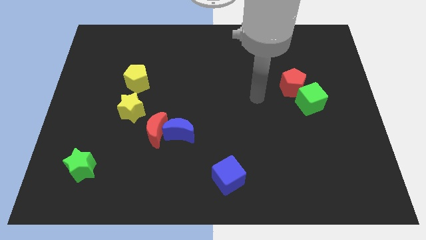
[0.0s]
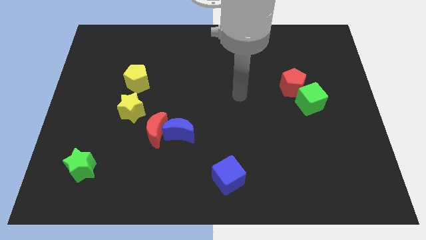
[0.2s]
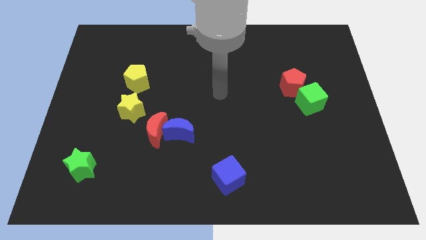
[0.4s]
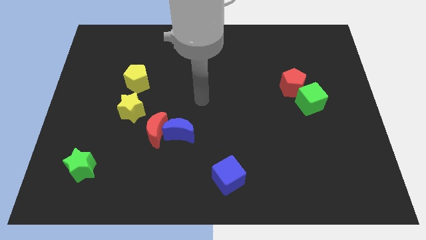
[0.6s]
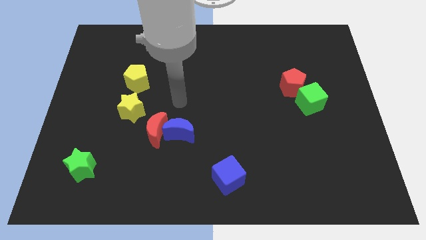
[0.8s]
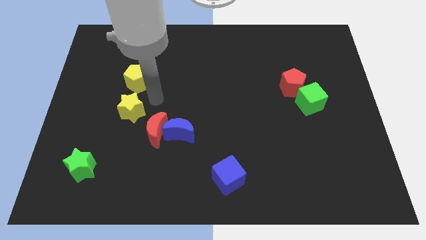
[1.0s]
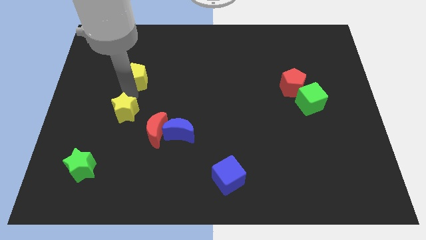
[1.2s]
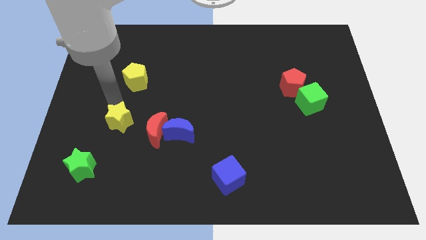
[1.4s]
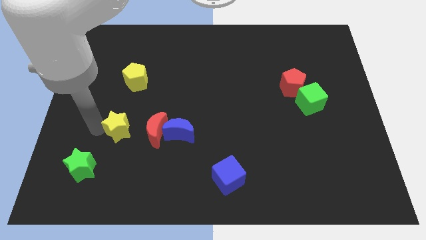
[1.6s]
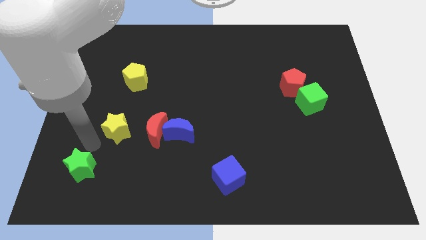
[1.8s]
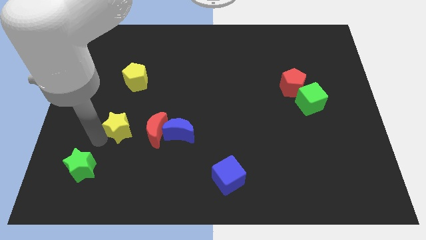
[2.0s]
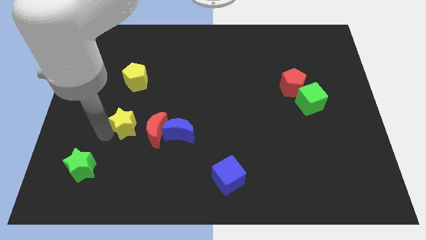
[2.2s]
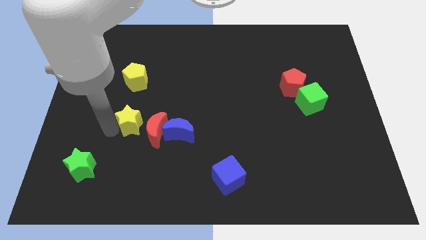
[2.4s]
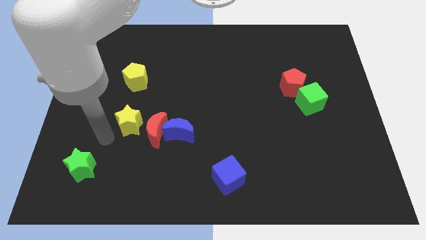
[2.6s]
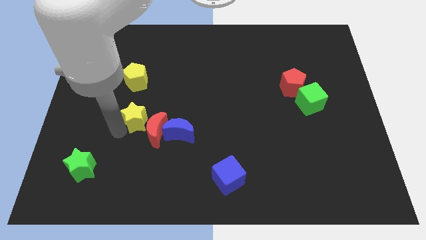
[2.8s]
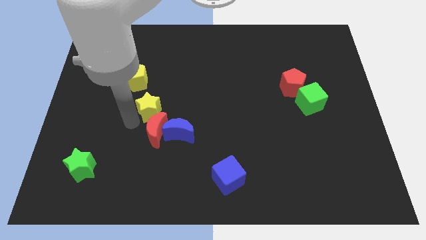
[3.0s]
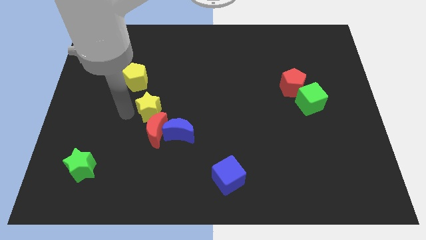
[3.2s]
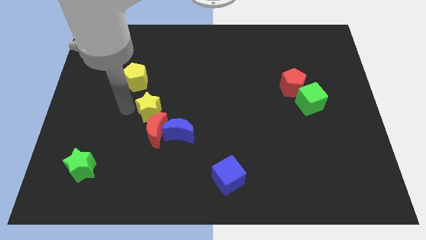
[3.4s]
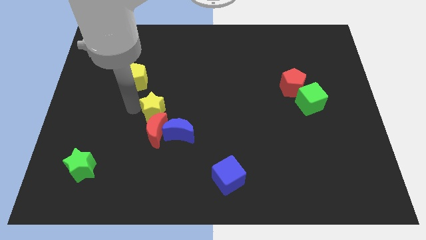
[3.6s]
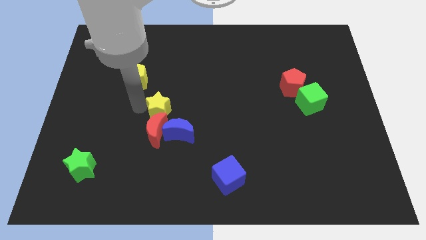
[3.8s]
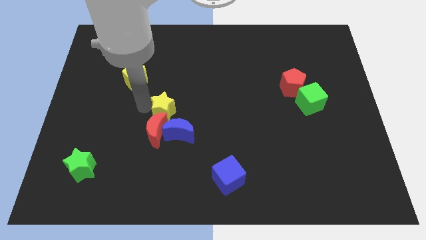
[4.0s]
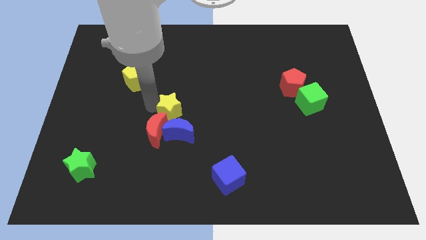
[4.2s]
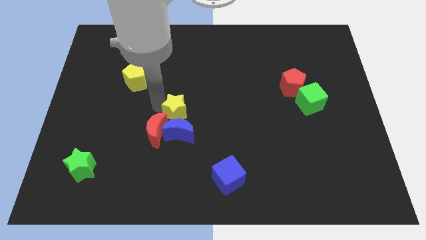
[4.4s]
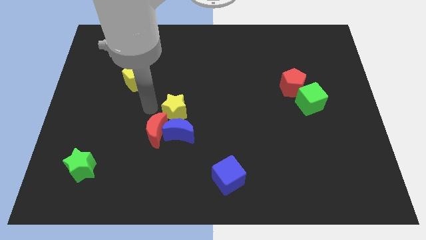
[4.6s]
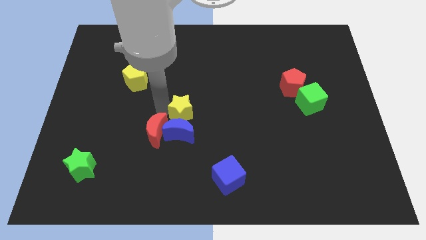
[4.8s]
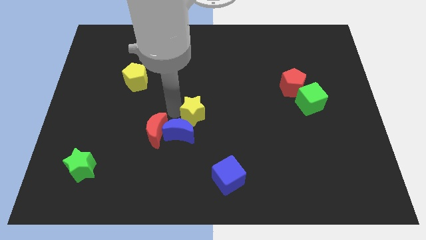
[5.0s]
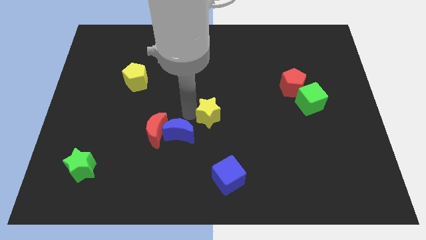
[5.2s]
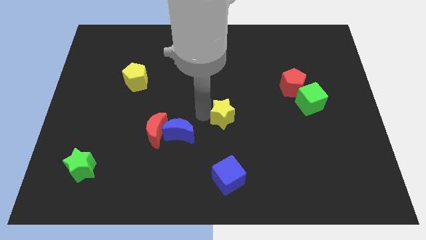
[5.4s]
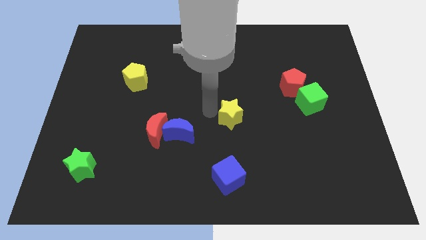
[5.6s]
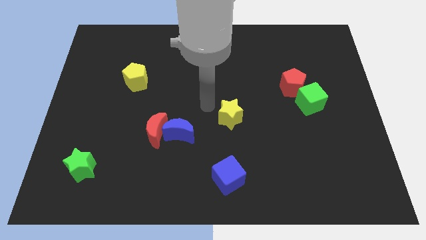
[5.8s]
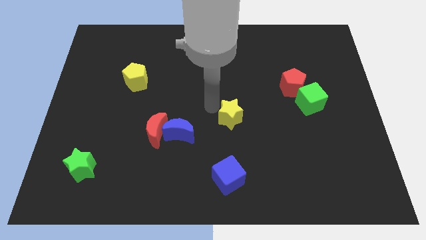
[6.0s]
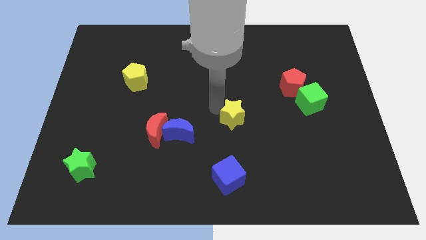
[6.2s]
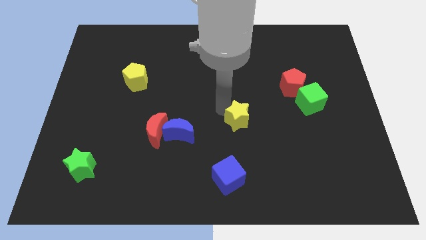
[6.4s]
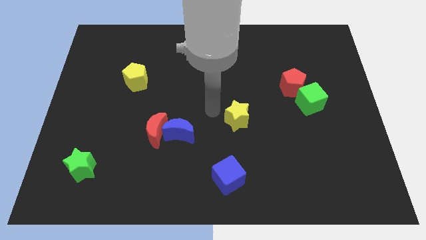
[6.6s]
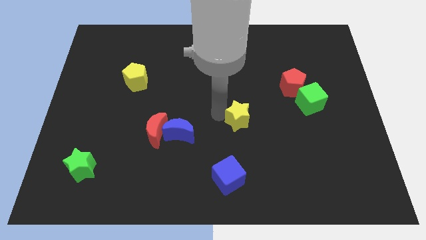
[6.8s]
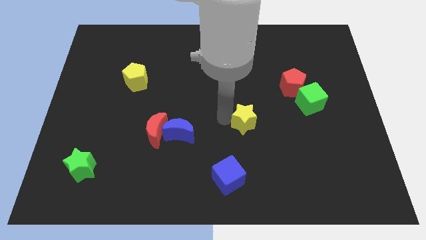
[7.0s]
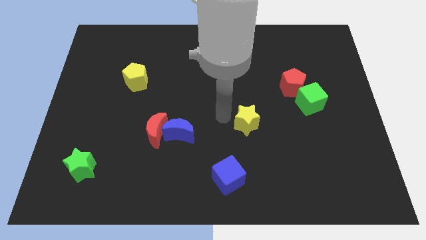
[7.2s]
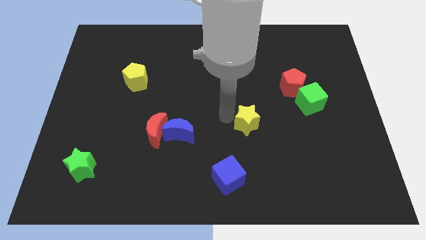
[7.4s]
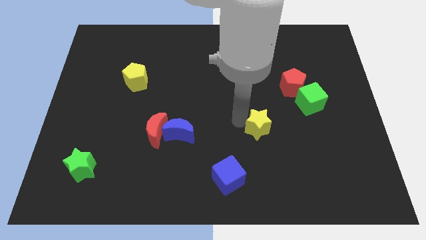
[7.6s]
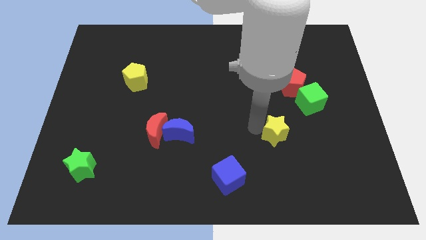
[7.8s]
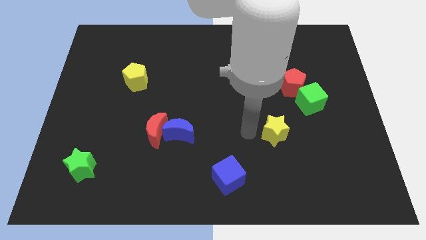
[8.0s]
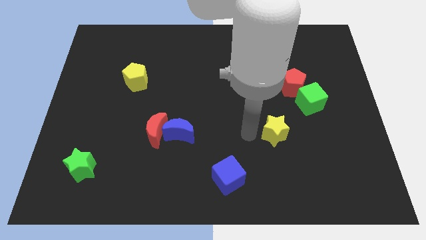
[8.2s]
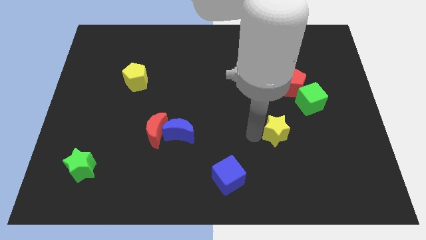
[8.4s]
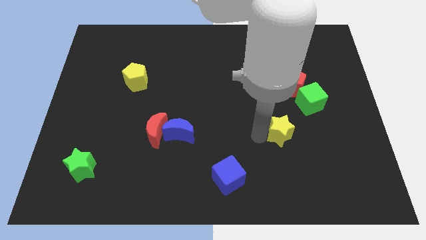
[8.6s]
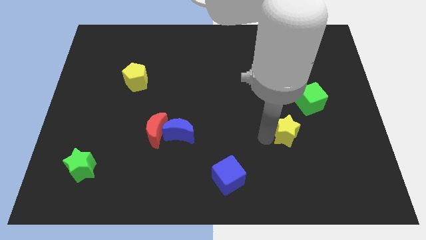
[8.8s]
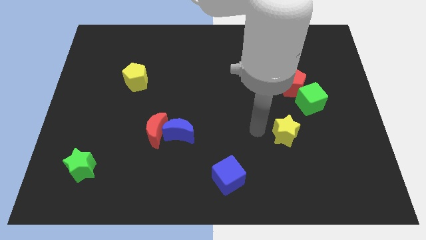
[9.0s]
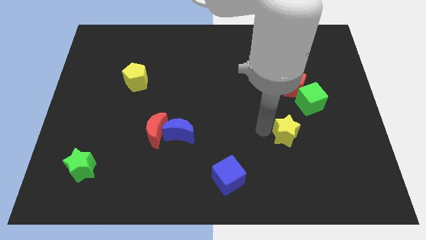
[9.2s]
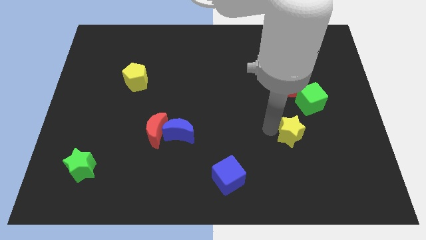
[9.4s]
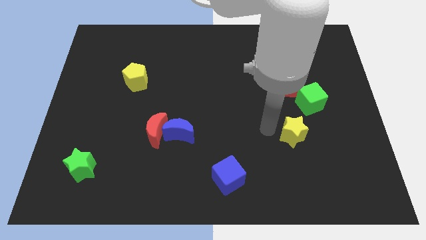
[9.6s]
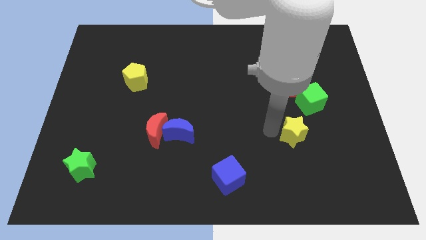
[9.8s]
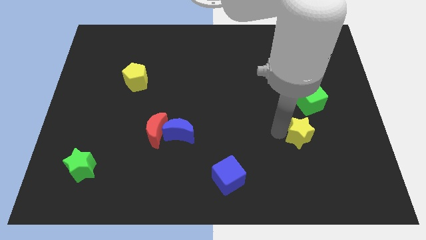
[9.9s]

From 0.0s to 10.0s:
push the yellow star to the bottom of the green cube

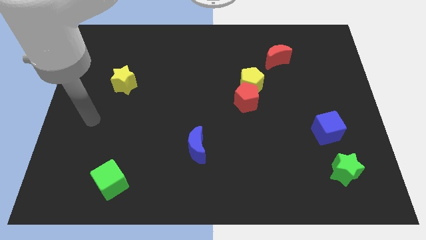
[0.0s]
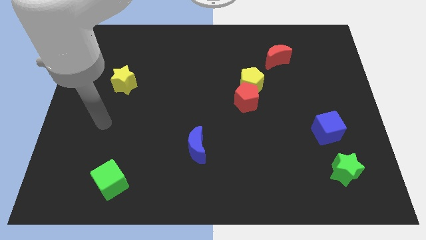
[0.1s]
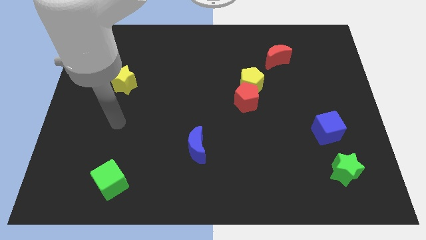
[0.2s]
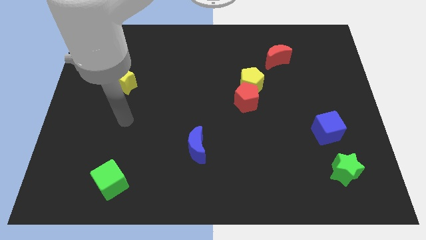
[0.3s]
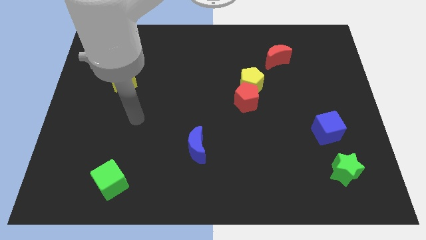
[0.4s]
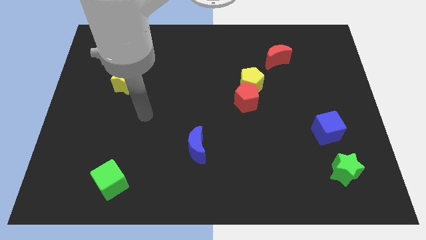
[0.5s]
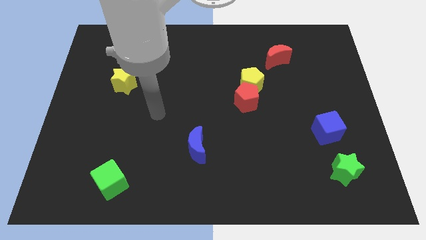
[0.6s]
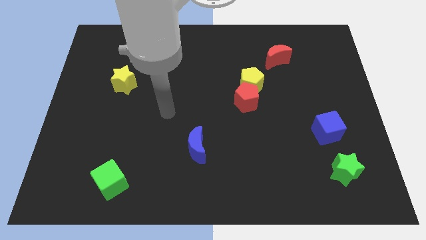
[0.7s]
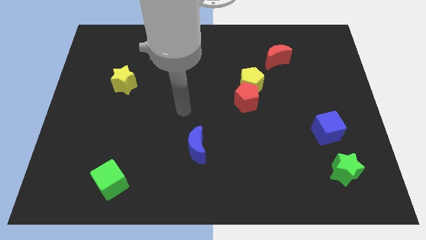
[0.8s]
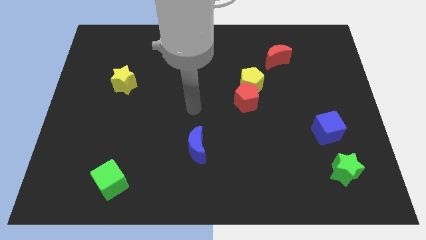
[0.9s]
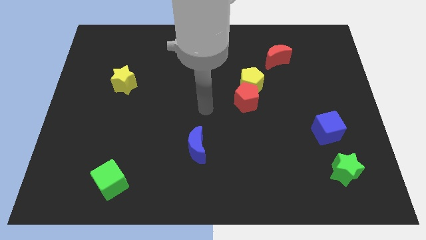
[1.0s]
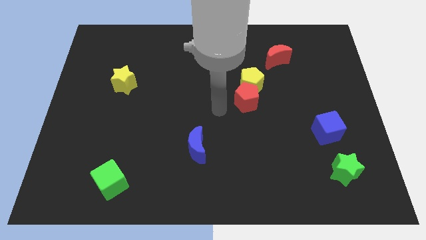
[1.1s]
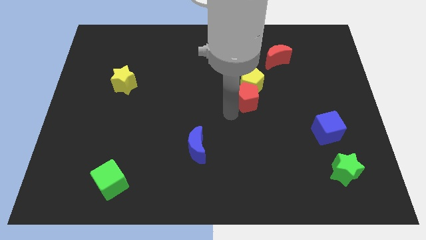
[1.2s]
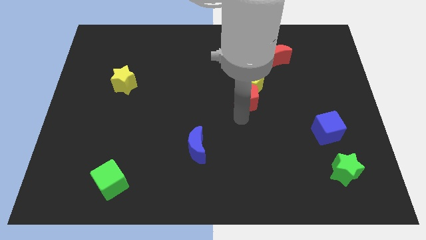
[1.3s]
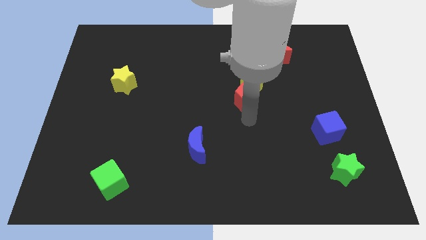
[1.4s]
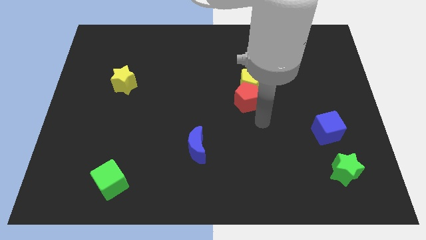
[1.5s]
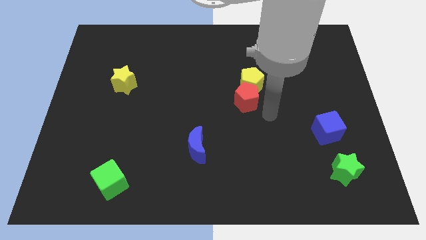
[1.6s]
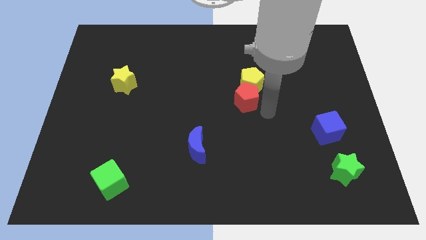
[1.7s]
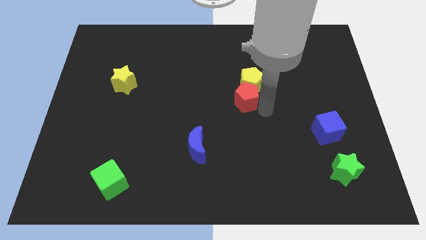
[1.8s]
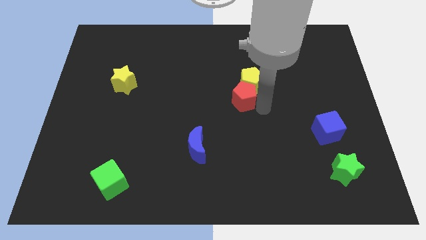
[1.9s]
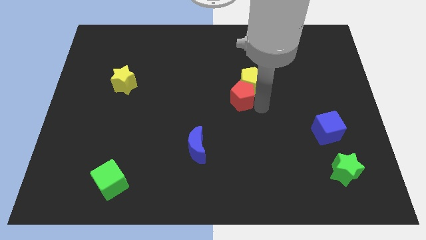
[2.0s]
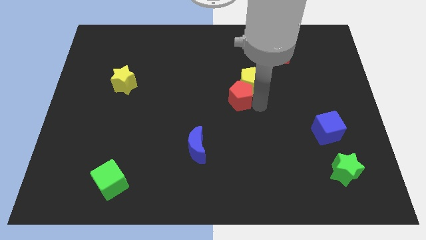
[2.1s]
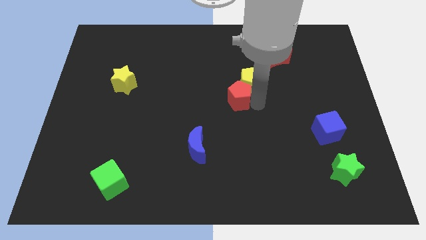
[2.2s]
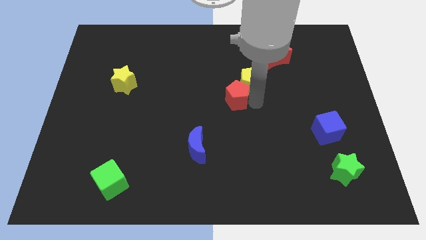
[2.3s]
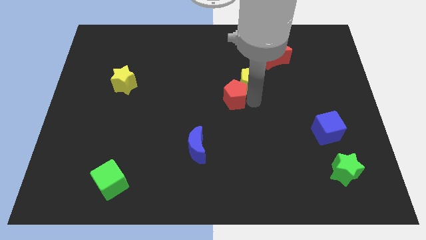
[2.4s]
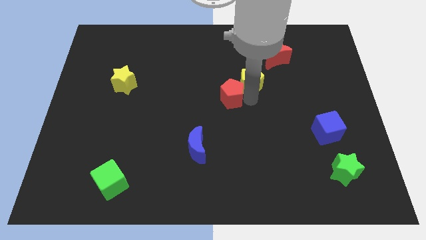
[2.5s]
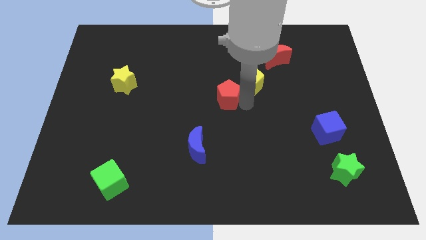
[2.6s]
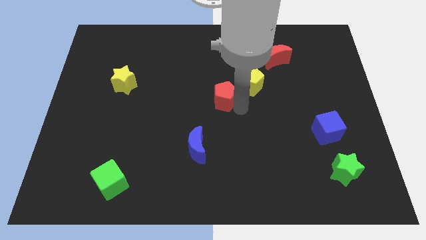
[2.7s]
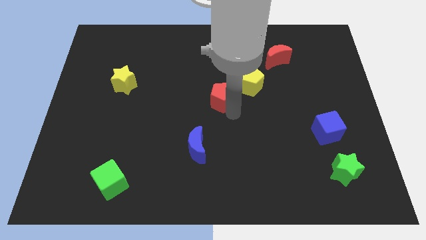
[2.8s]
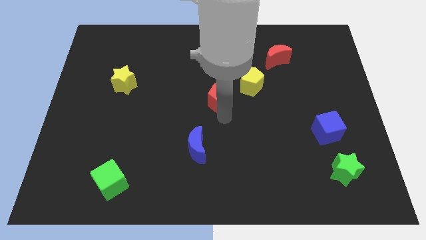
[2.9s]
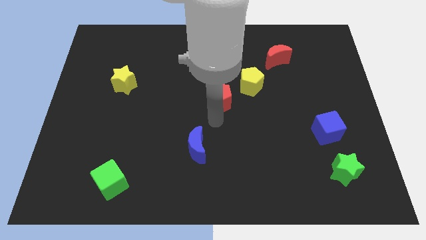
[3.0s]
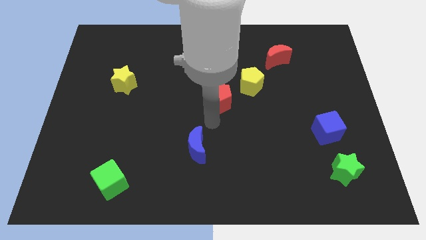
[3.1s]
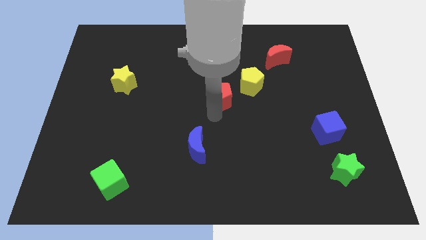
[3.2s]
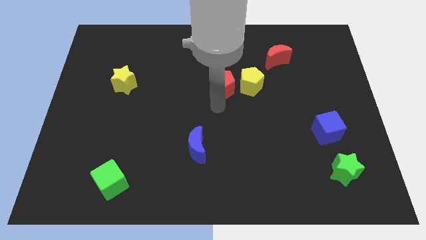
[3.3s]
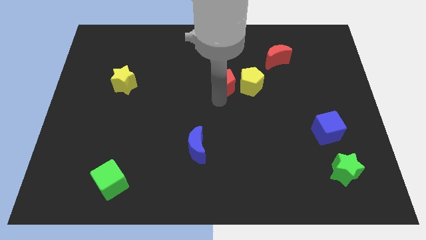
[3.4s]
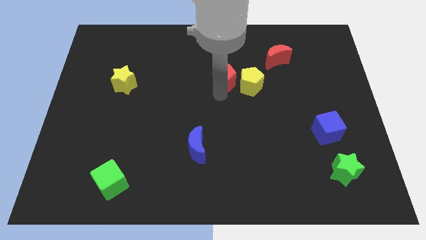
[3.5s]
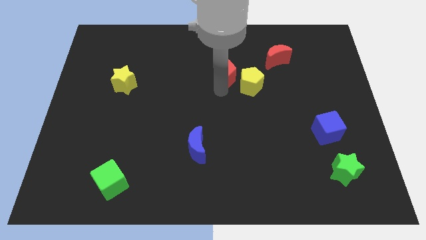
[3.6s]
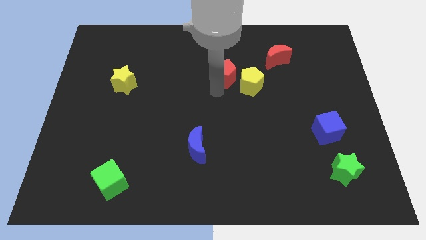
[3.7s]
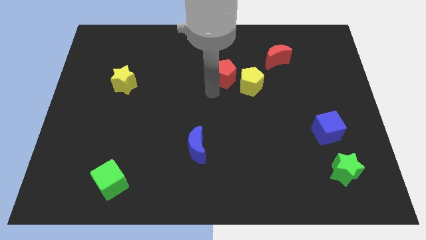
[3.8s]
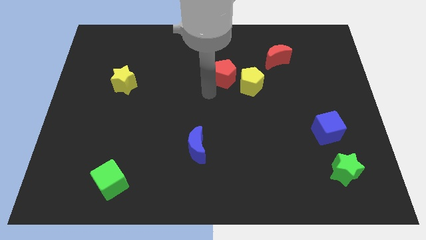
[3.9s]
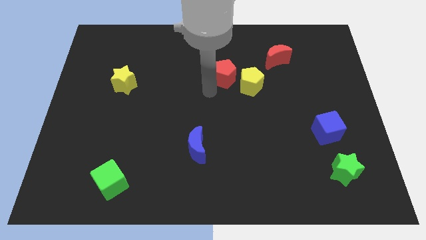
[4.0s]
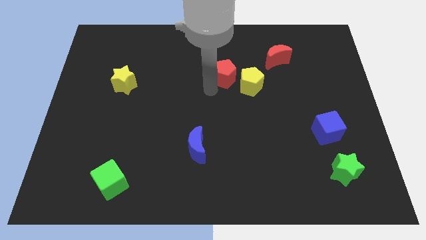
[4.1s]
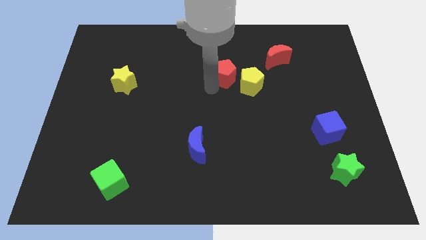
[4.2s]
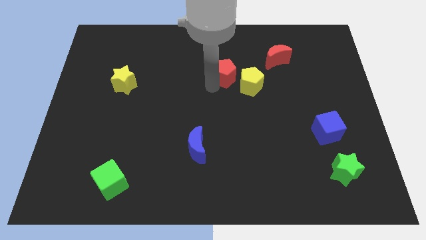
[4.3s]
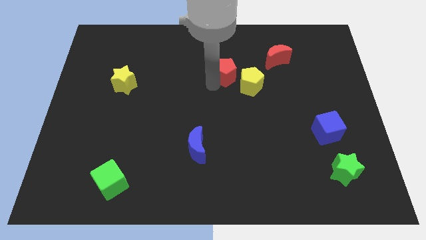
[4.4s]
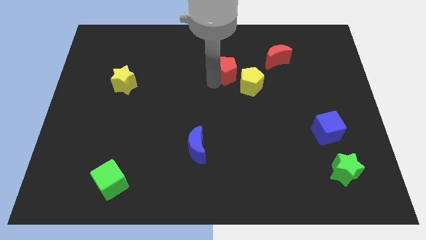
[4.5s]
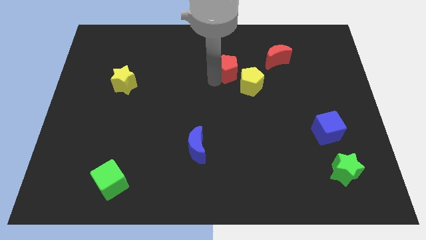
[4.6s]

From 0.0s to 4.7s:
put the red pentagon left of the red moon
